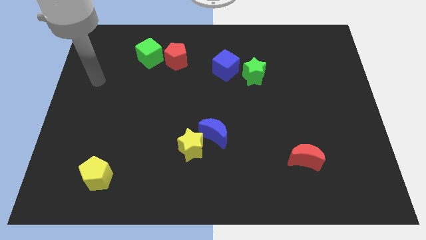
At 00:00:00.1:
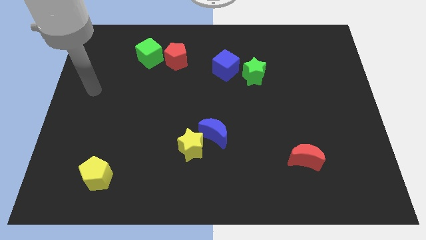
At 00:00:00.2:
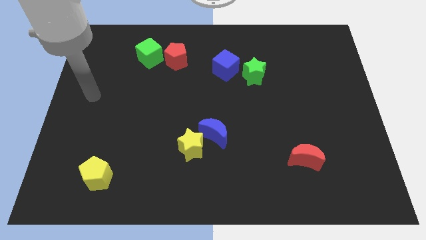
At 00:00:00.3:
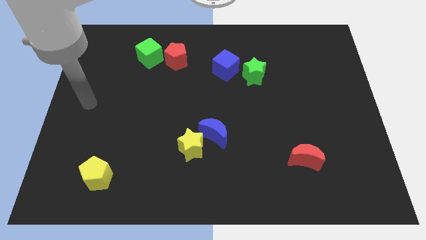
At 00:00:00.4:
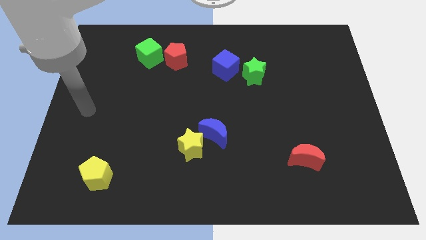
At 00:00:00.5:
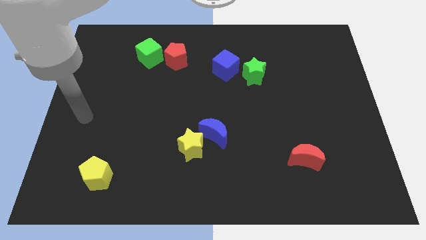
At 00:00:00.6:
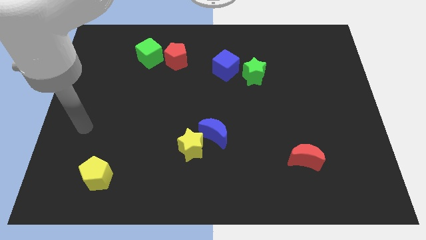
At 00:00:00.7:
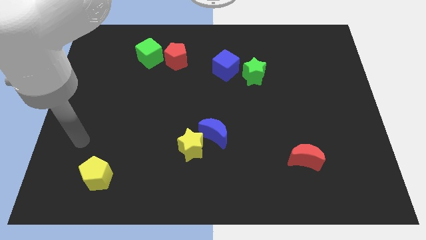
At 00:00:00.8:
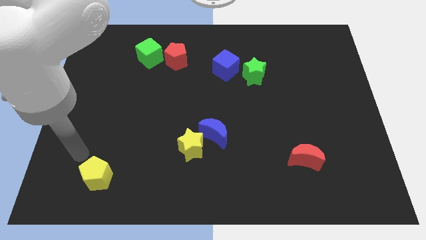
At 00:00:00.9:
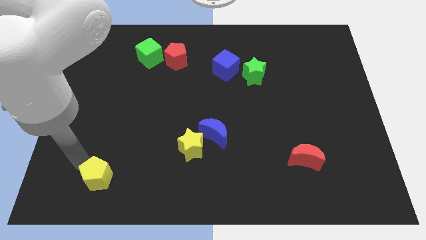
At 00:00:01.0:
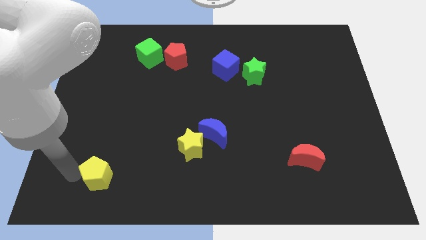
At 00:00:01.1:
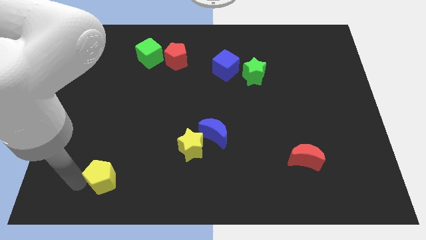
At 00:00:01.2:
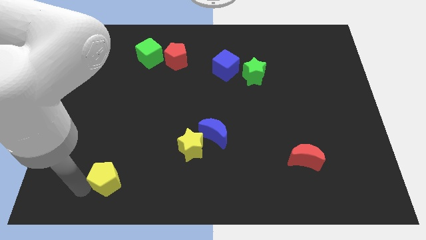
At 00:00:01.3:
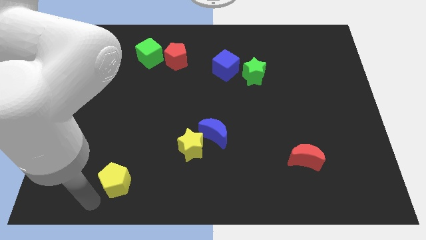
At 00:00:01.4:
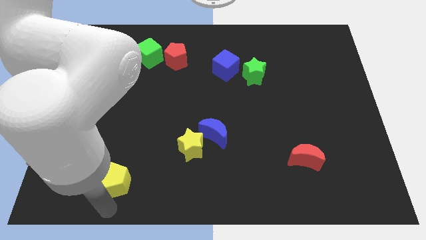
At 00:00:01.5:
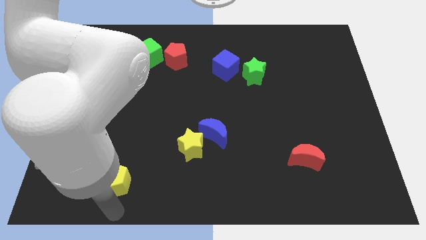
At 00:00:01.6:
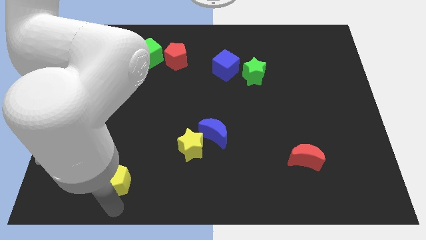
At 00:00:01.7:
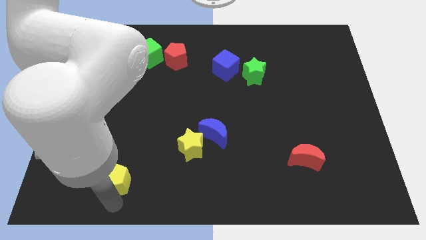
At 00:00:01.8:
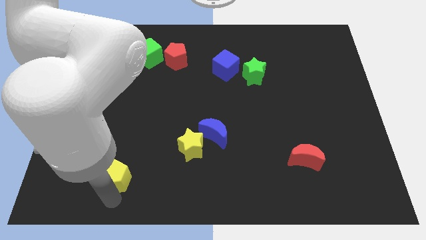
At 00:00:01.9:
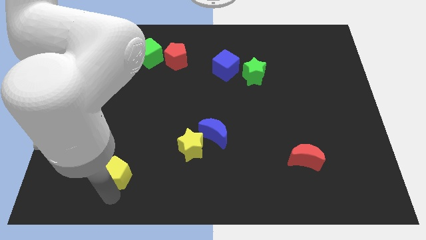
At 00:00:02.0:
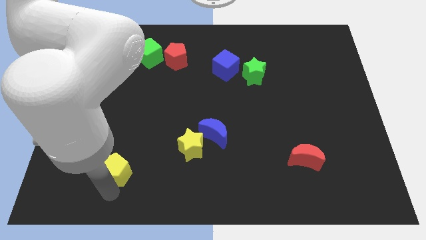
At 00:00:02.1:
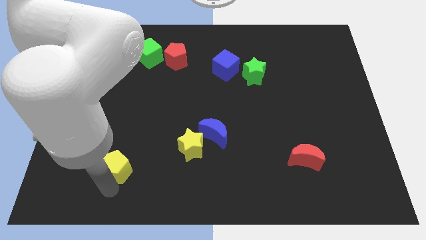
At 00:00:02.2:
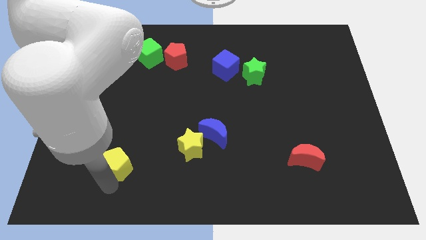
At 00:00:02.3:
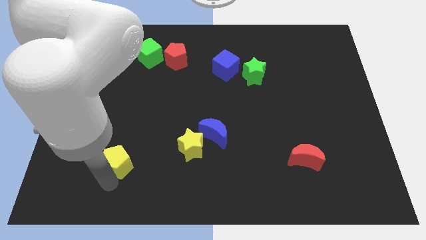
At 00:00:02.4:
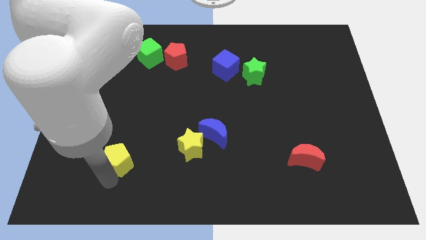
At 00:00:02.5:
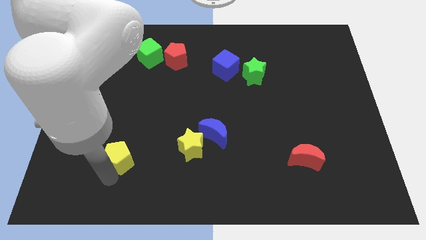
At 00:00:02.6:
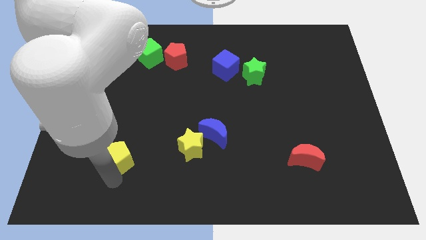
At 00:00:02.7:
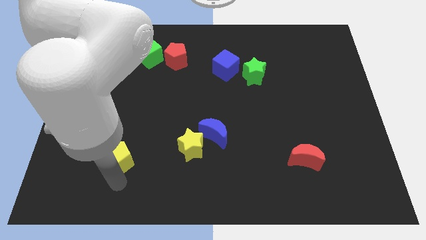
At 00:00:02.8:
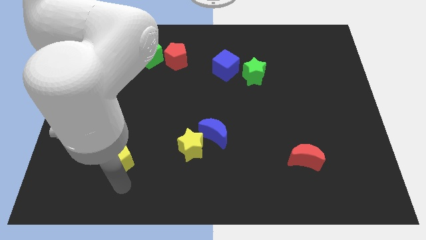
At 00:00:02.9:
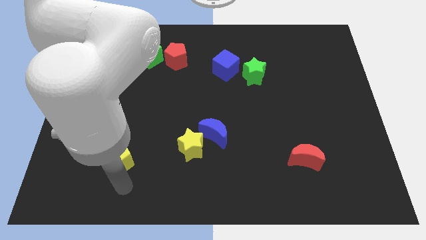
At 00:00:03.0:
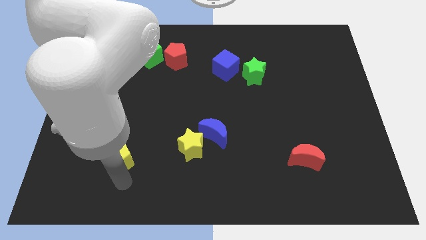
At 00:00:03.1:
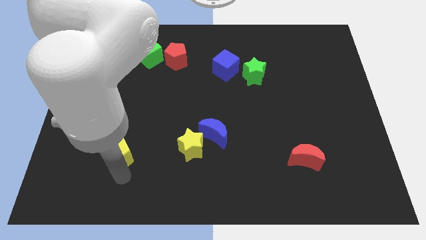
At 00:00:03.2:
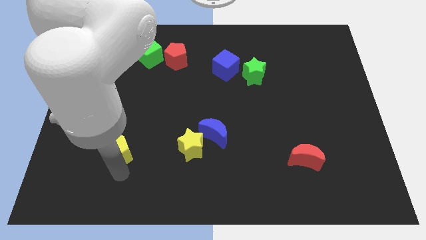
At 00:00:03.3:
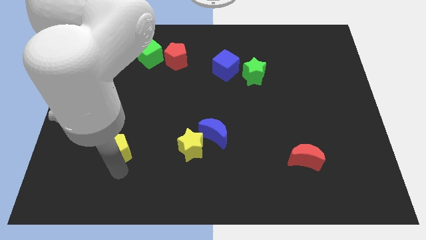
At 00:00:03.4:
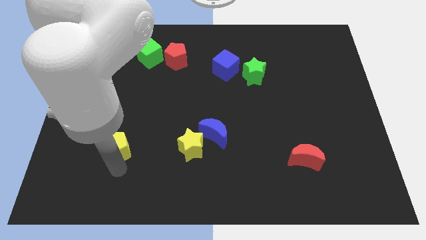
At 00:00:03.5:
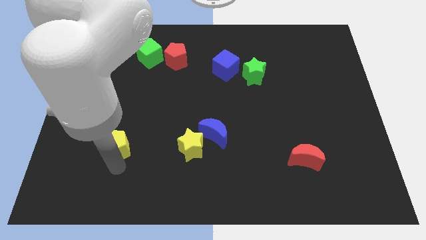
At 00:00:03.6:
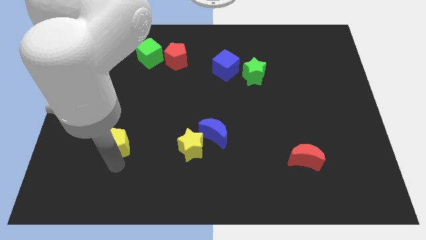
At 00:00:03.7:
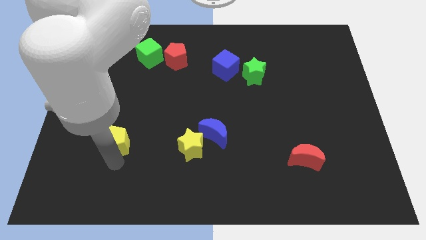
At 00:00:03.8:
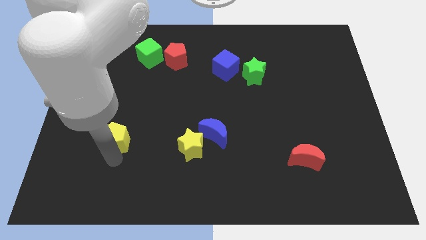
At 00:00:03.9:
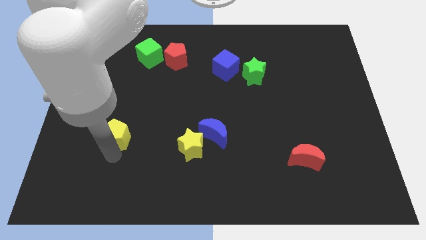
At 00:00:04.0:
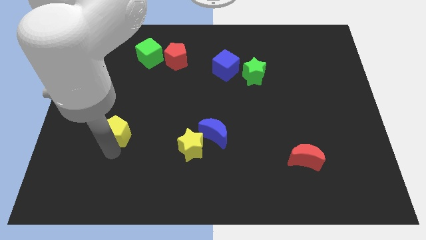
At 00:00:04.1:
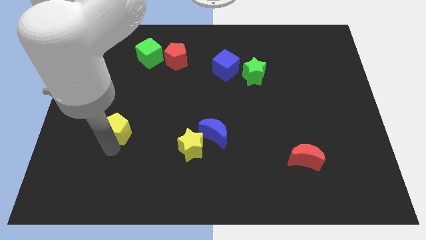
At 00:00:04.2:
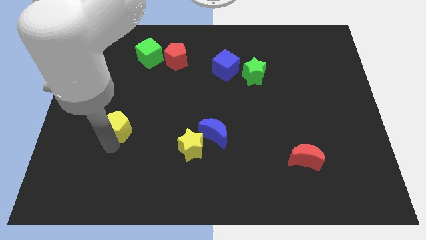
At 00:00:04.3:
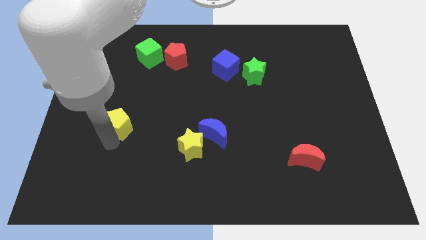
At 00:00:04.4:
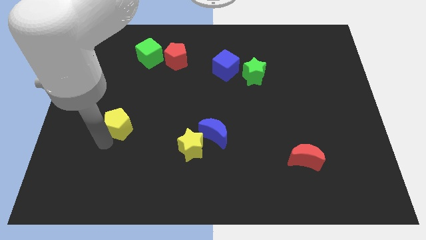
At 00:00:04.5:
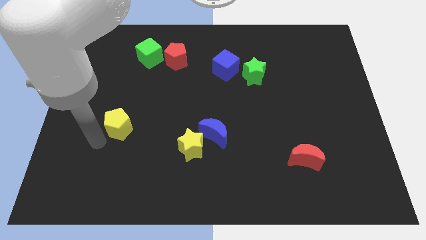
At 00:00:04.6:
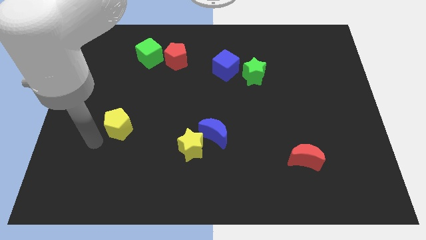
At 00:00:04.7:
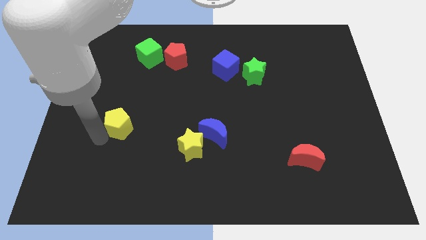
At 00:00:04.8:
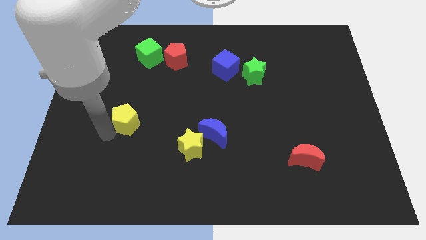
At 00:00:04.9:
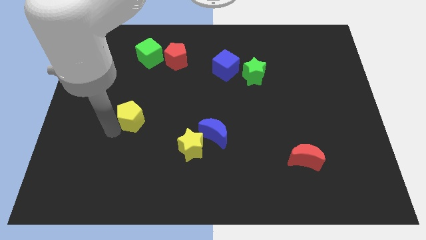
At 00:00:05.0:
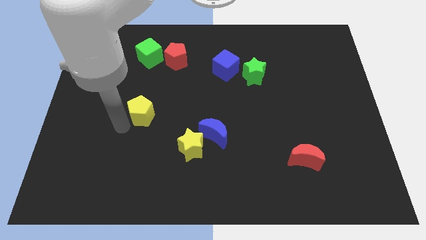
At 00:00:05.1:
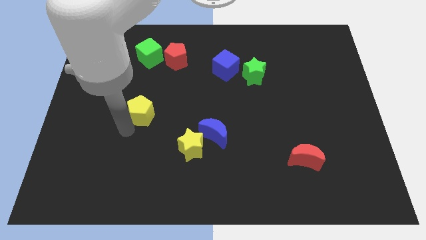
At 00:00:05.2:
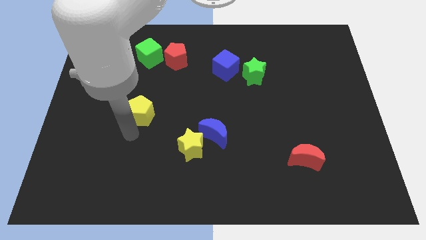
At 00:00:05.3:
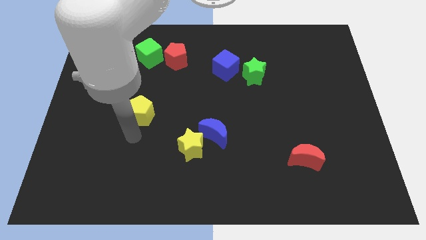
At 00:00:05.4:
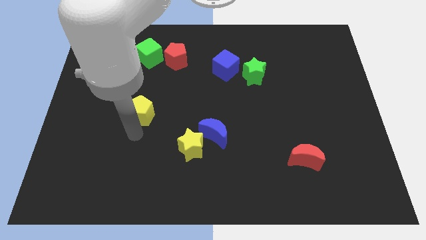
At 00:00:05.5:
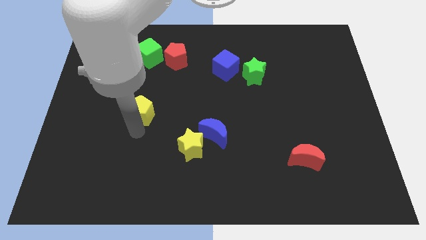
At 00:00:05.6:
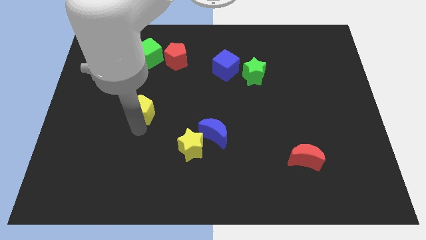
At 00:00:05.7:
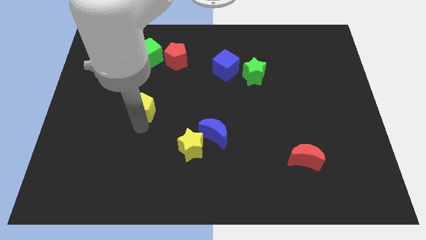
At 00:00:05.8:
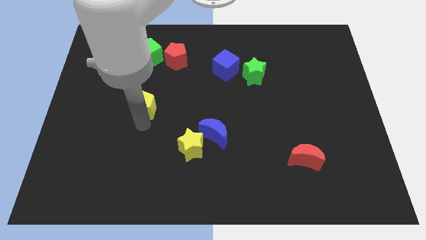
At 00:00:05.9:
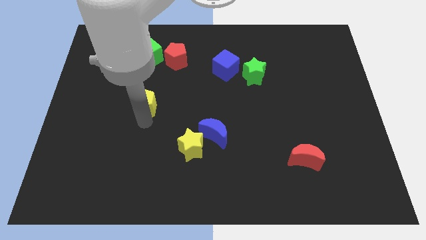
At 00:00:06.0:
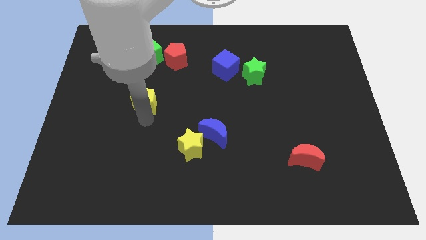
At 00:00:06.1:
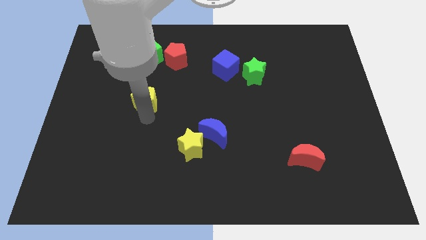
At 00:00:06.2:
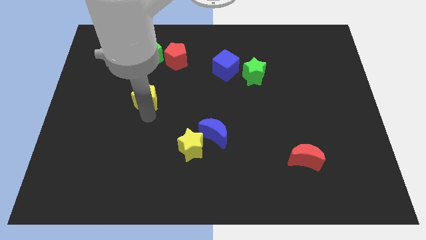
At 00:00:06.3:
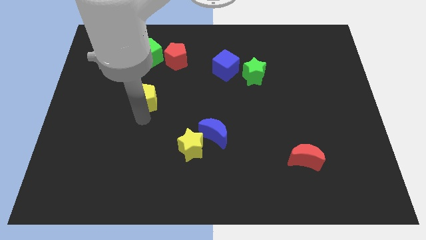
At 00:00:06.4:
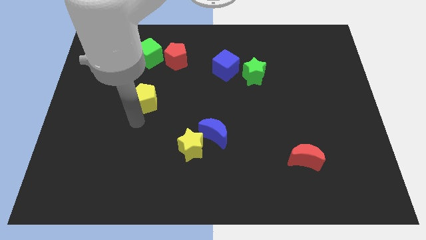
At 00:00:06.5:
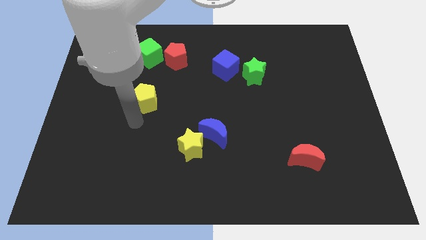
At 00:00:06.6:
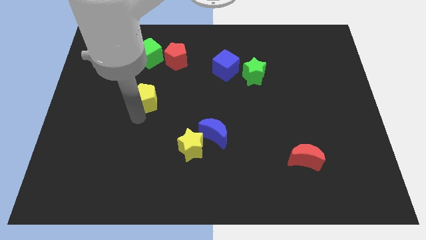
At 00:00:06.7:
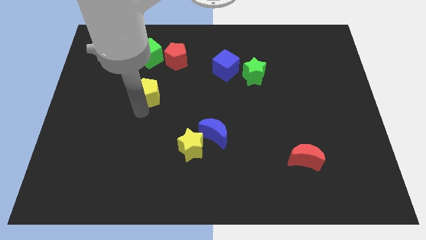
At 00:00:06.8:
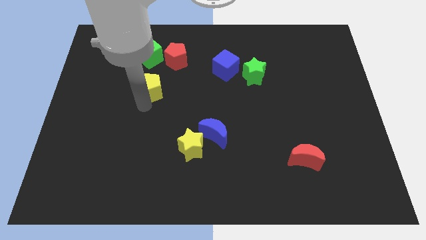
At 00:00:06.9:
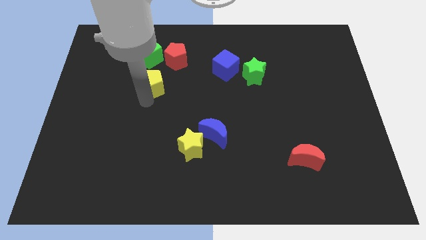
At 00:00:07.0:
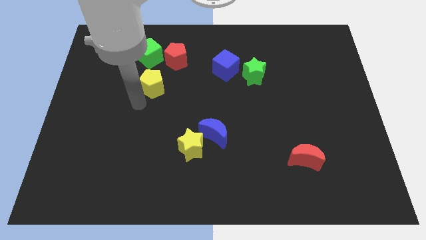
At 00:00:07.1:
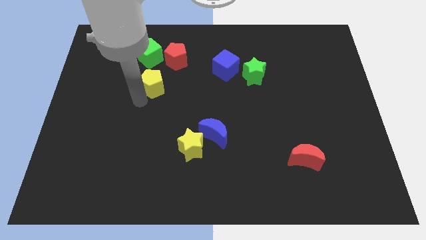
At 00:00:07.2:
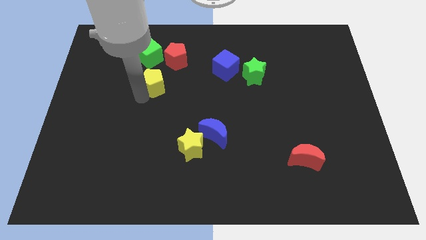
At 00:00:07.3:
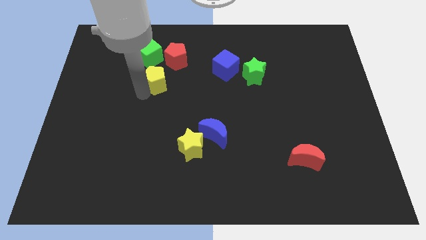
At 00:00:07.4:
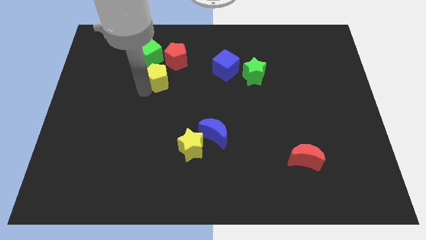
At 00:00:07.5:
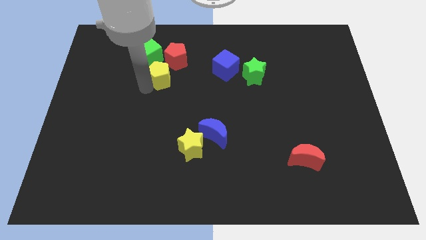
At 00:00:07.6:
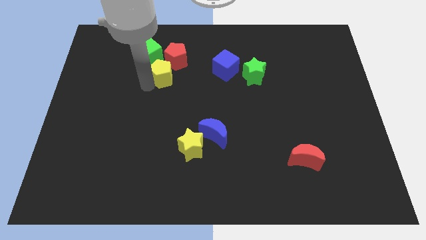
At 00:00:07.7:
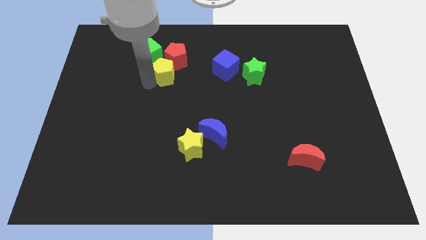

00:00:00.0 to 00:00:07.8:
move the yellow pentagon close to the red pentagon
